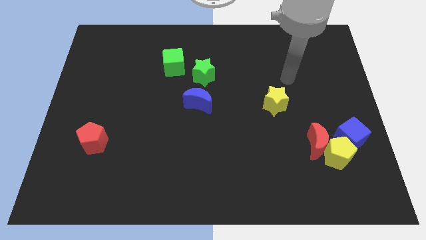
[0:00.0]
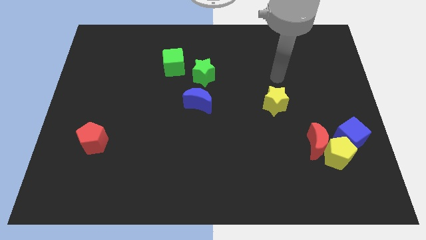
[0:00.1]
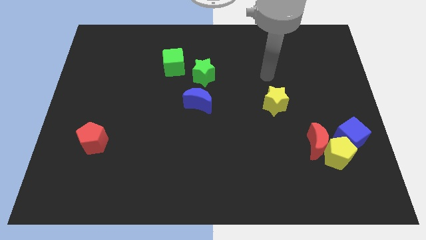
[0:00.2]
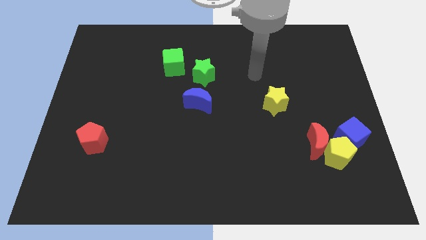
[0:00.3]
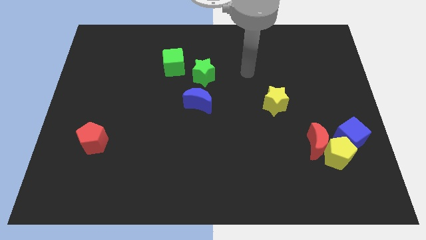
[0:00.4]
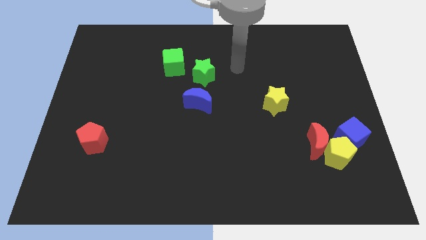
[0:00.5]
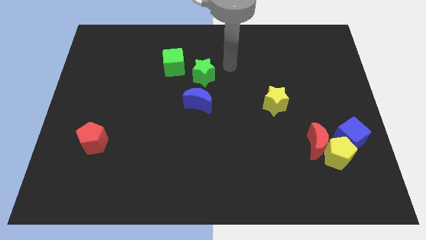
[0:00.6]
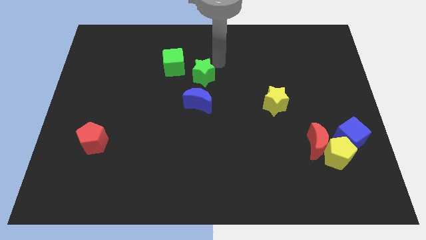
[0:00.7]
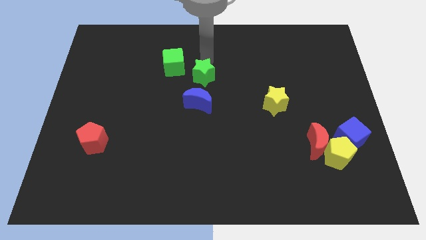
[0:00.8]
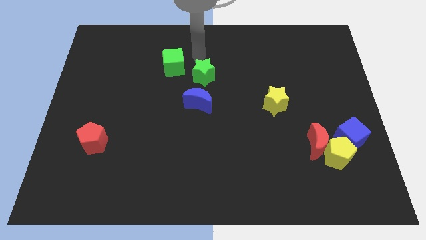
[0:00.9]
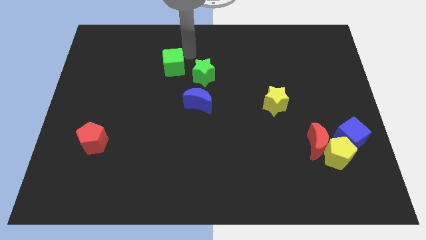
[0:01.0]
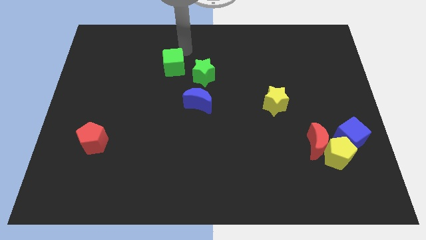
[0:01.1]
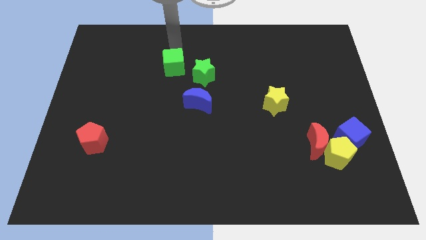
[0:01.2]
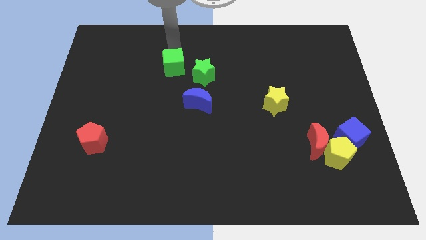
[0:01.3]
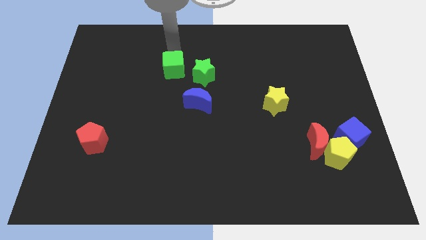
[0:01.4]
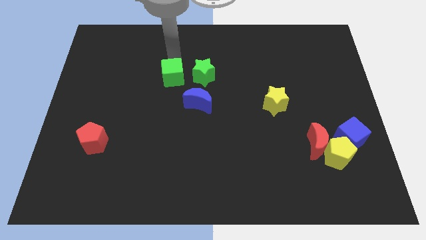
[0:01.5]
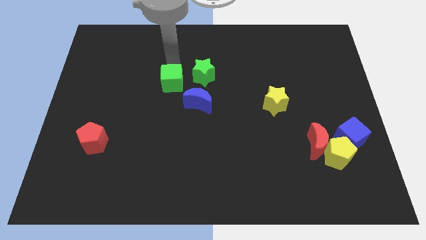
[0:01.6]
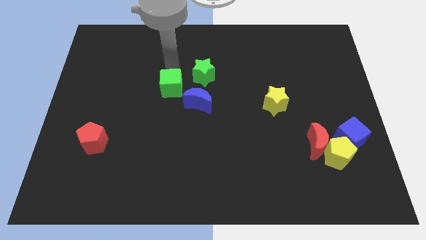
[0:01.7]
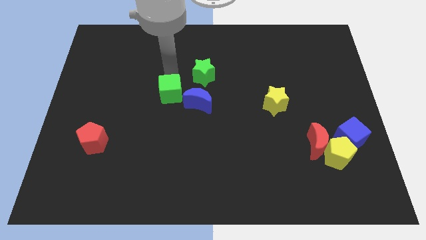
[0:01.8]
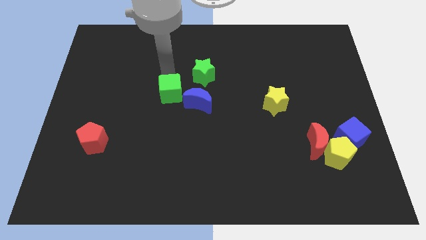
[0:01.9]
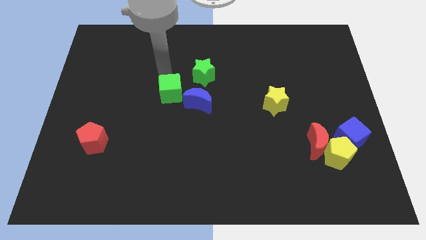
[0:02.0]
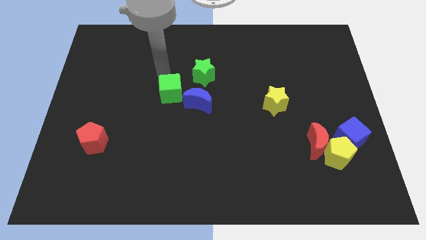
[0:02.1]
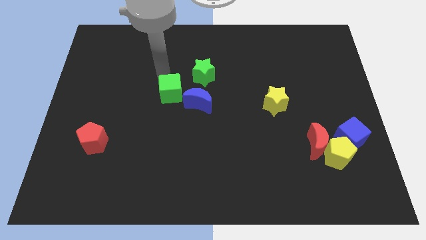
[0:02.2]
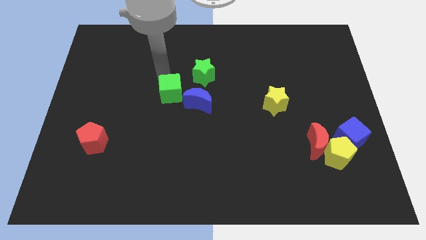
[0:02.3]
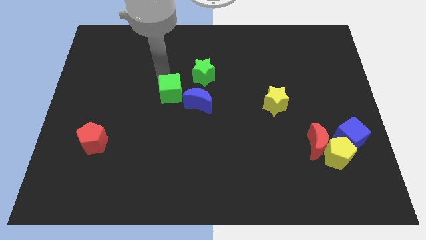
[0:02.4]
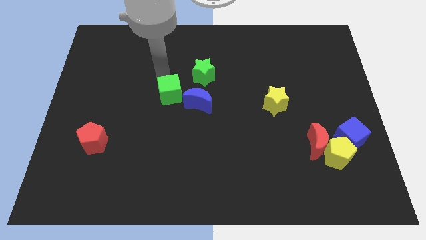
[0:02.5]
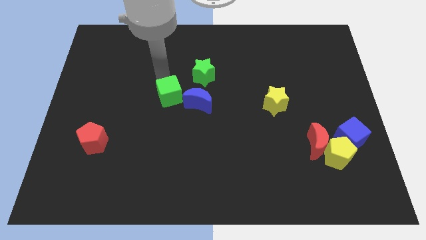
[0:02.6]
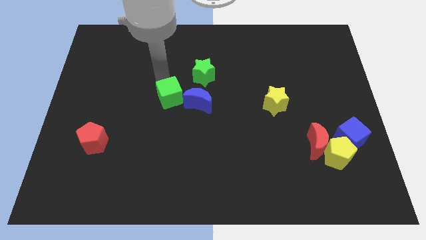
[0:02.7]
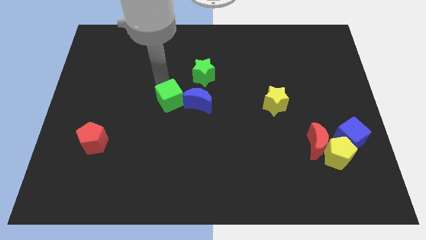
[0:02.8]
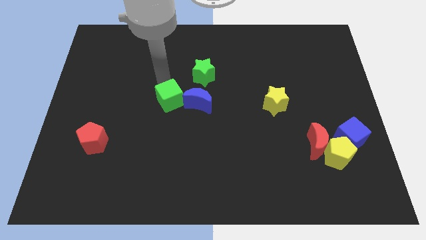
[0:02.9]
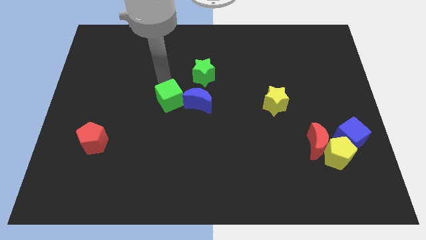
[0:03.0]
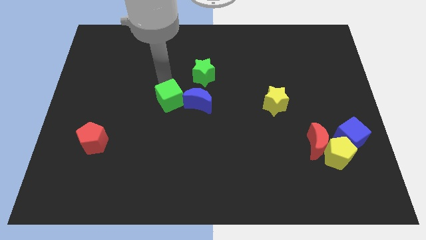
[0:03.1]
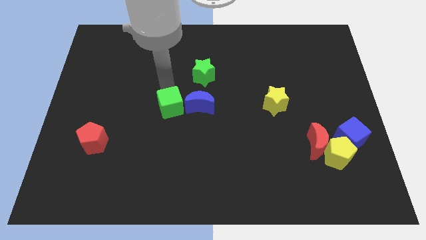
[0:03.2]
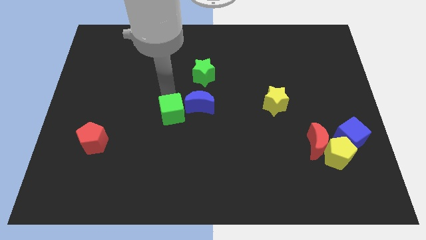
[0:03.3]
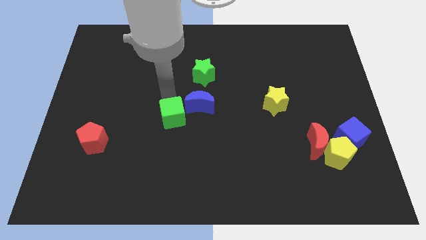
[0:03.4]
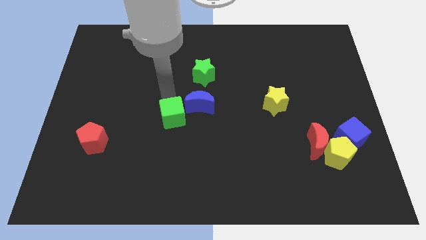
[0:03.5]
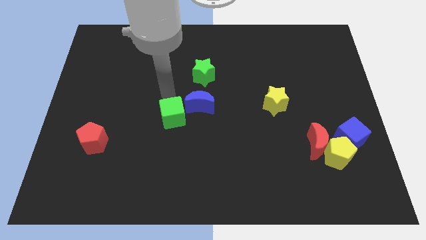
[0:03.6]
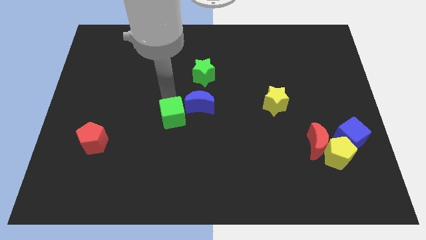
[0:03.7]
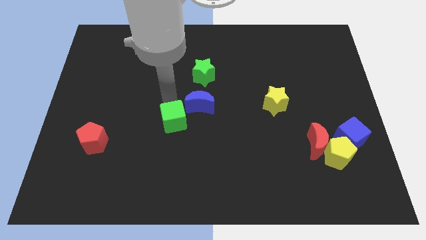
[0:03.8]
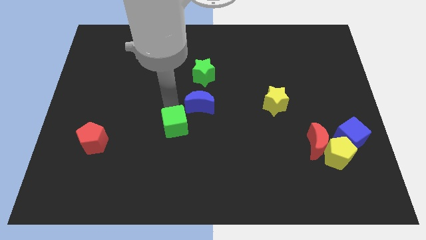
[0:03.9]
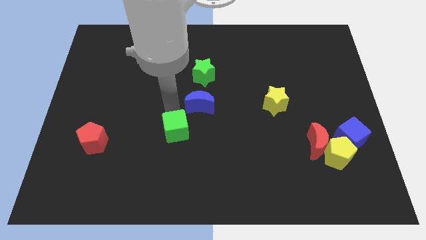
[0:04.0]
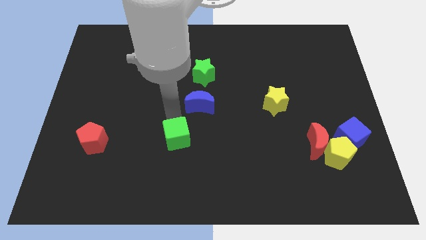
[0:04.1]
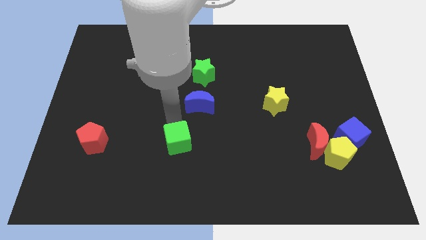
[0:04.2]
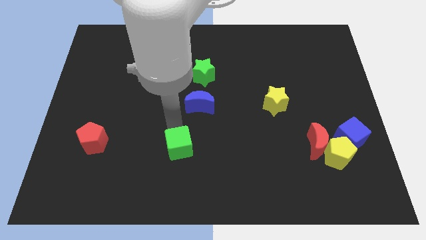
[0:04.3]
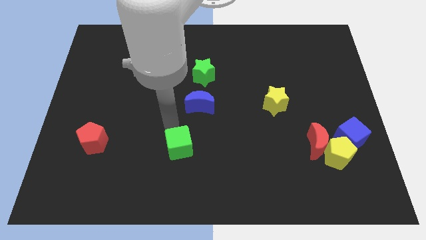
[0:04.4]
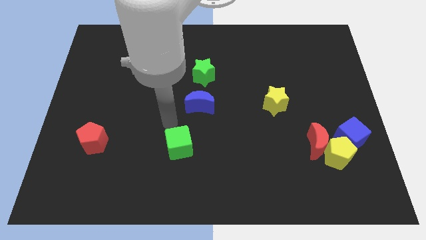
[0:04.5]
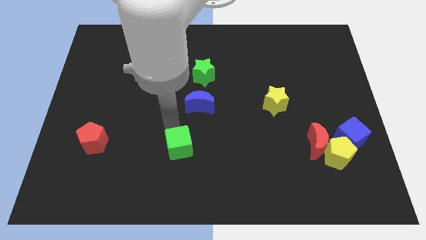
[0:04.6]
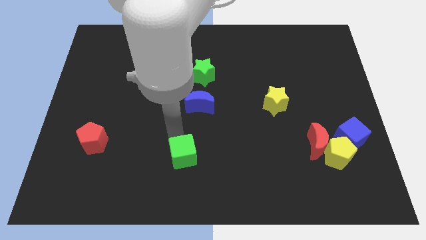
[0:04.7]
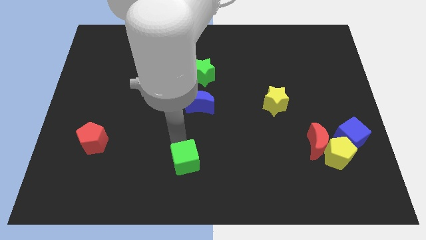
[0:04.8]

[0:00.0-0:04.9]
move the green cube to the bottom

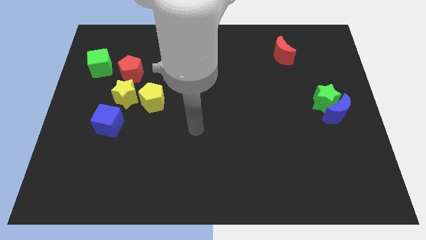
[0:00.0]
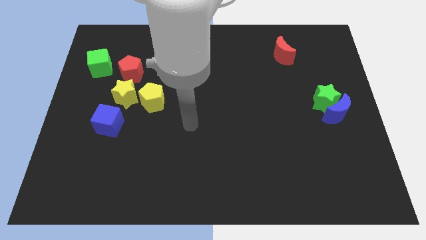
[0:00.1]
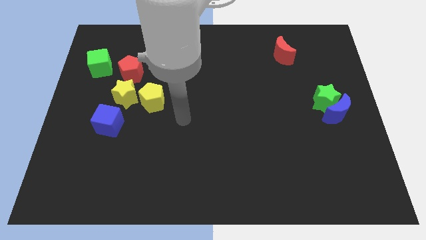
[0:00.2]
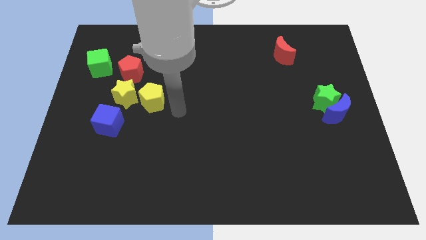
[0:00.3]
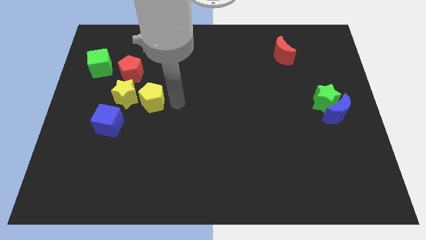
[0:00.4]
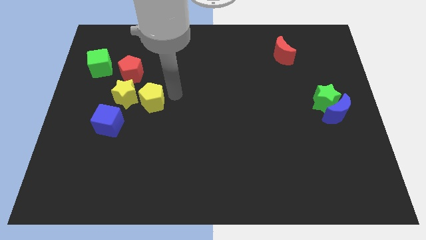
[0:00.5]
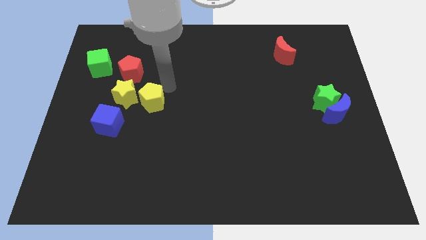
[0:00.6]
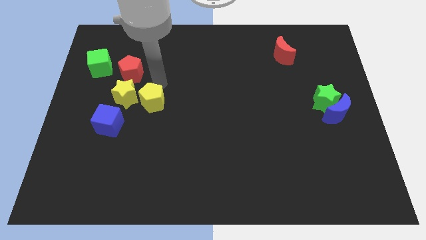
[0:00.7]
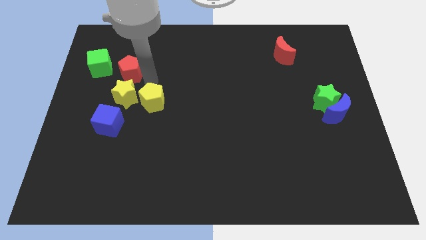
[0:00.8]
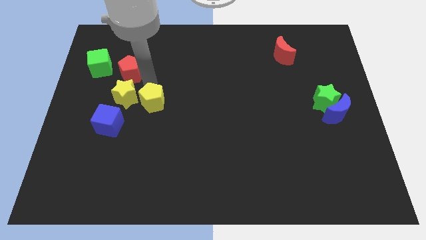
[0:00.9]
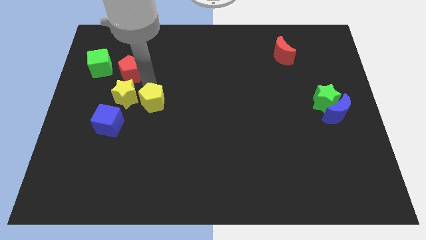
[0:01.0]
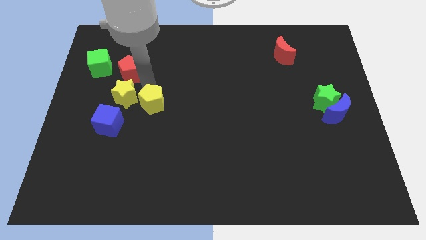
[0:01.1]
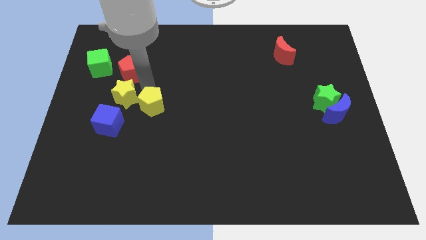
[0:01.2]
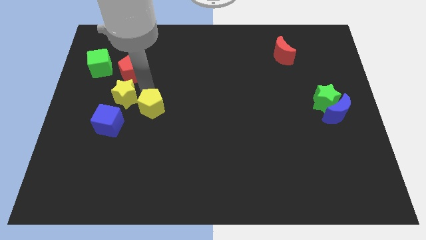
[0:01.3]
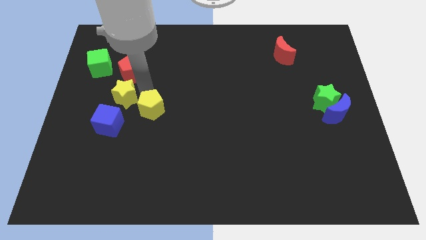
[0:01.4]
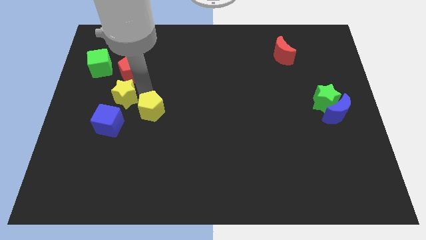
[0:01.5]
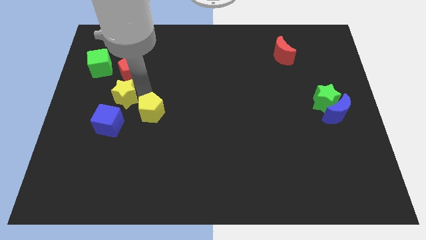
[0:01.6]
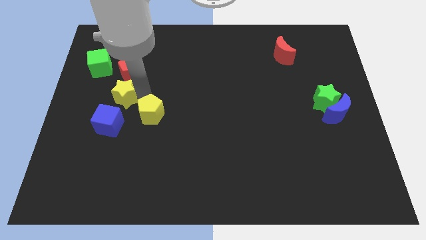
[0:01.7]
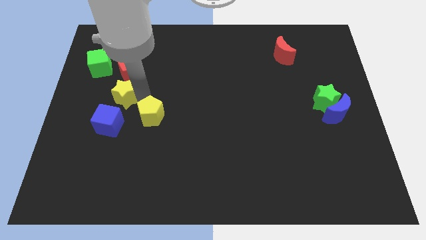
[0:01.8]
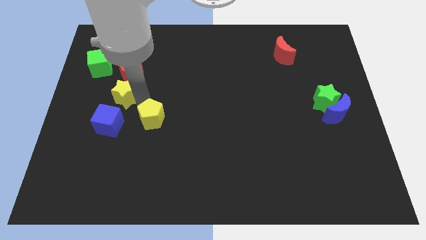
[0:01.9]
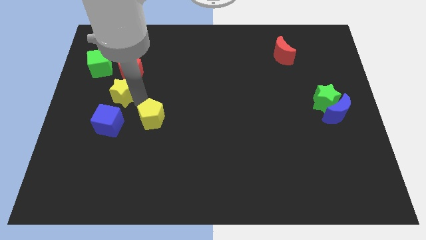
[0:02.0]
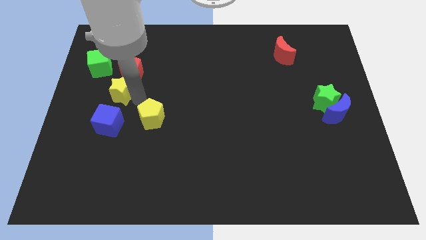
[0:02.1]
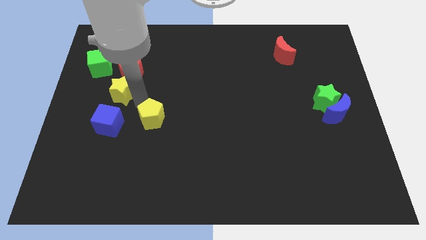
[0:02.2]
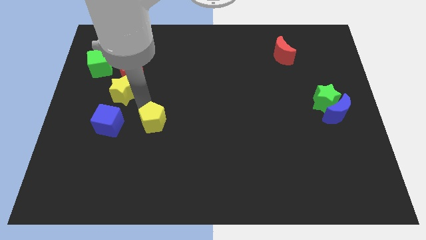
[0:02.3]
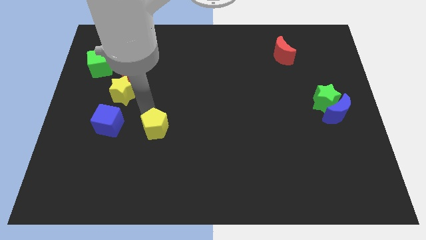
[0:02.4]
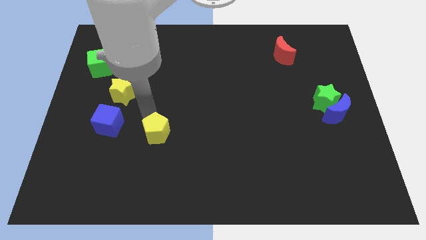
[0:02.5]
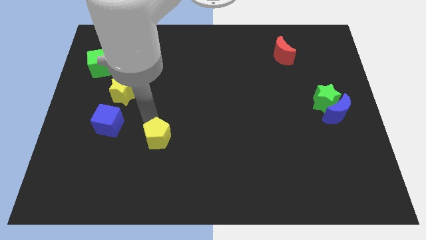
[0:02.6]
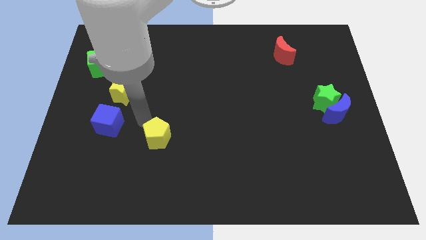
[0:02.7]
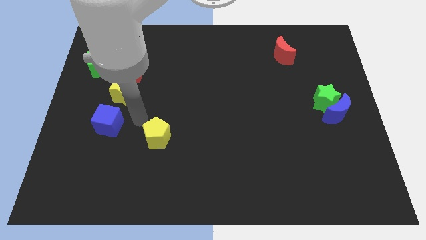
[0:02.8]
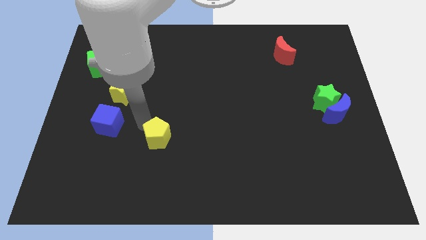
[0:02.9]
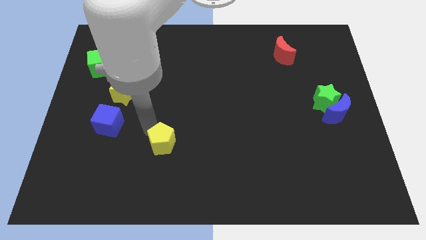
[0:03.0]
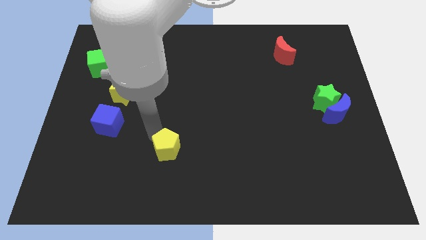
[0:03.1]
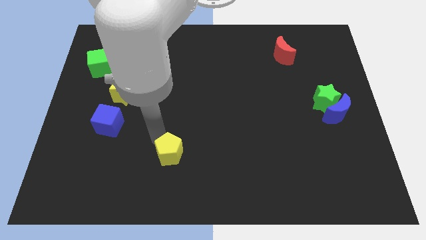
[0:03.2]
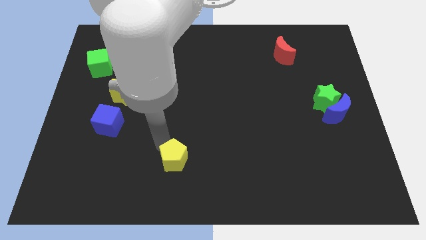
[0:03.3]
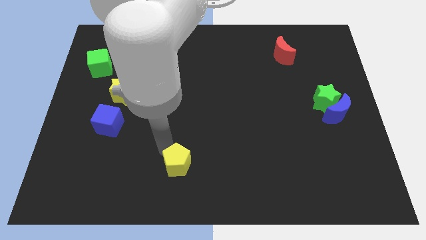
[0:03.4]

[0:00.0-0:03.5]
push the yellow pentagon to the bottom
